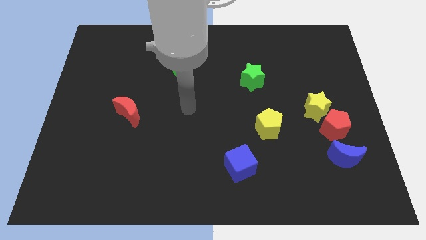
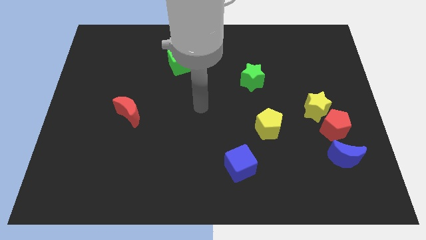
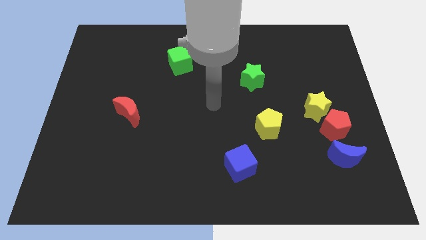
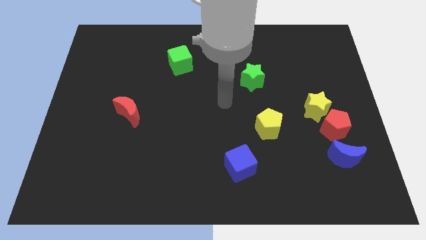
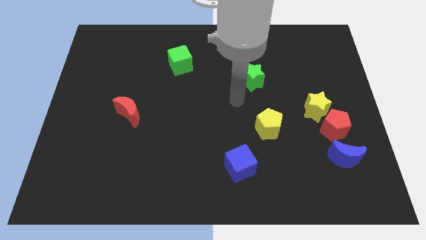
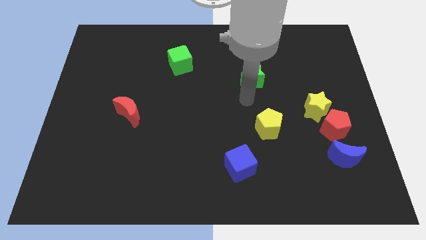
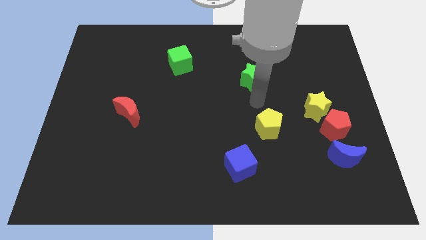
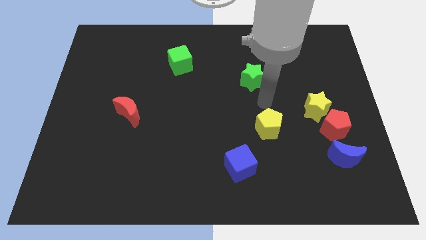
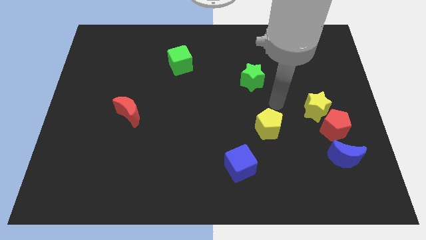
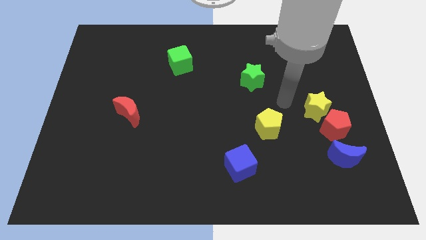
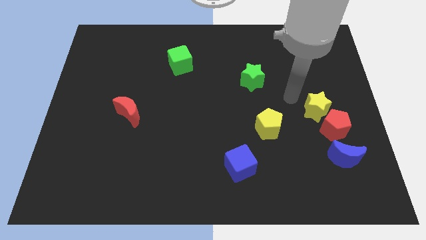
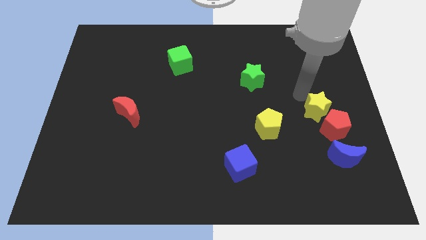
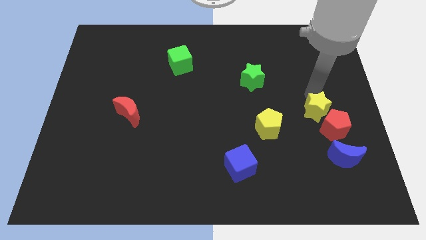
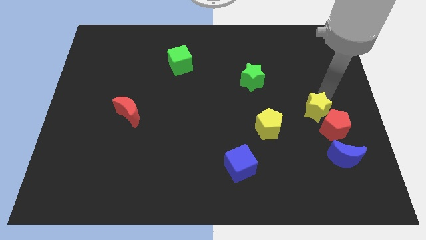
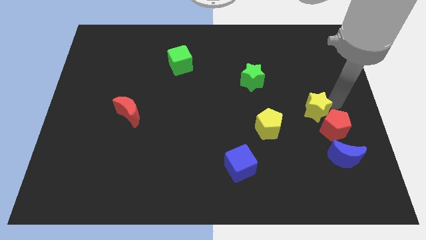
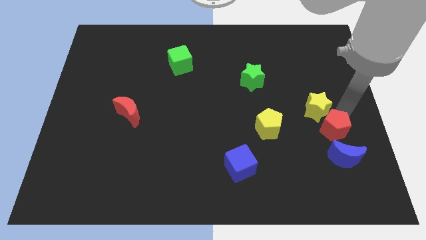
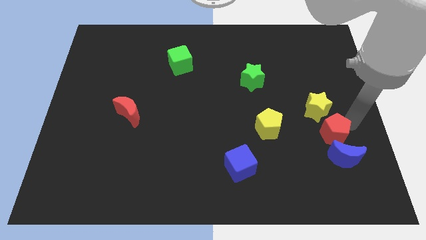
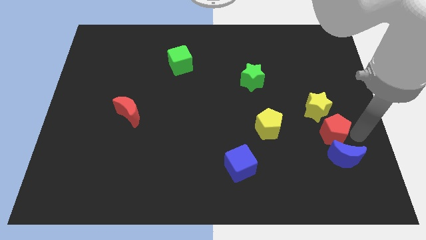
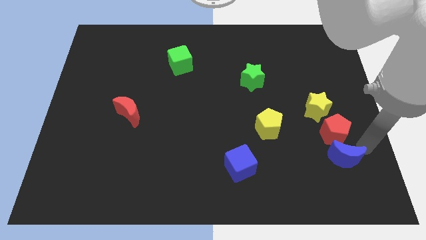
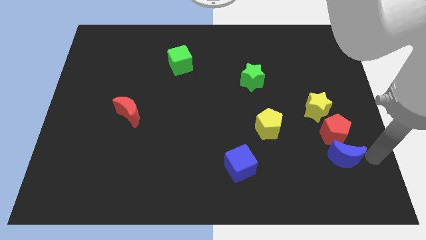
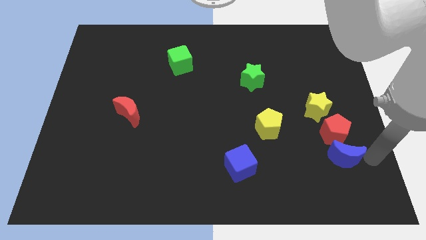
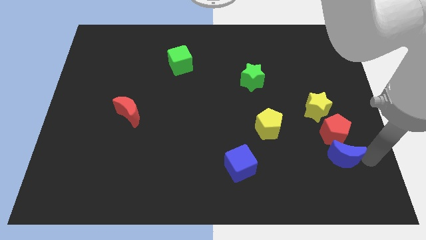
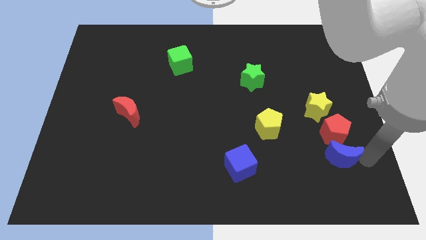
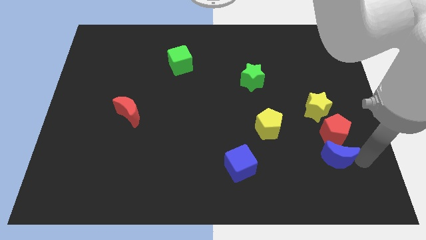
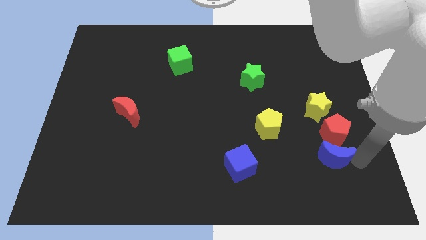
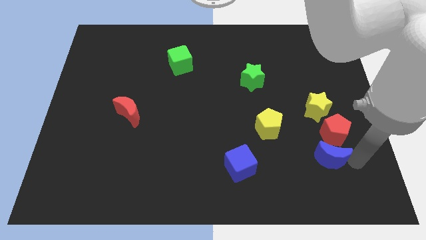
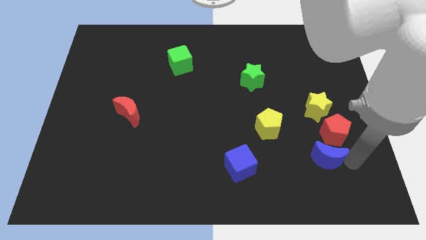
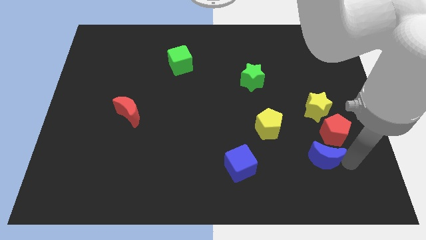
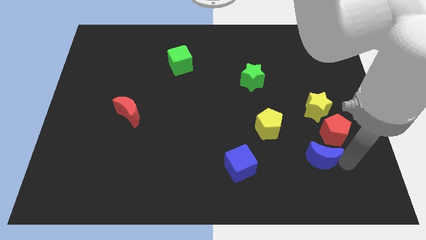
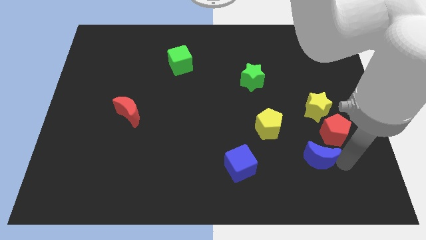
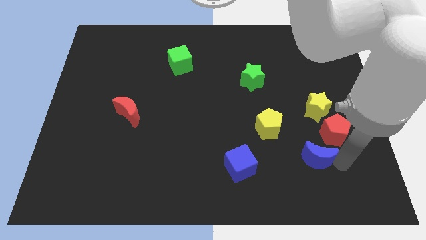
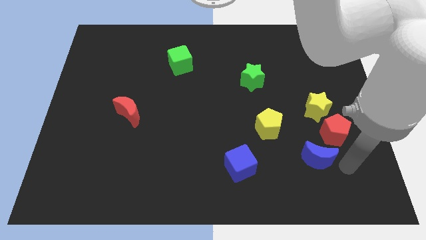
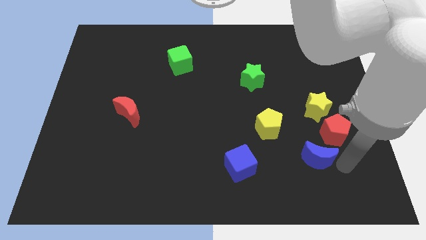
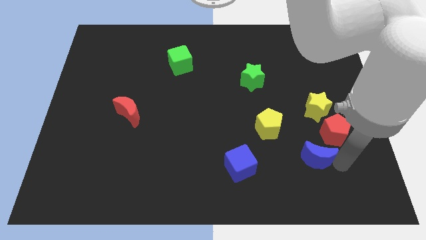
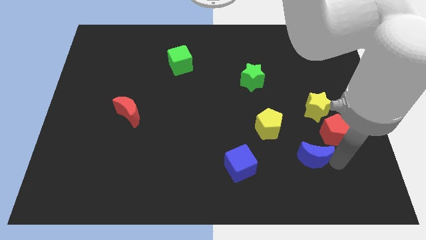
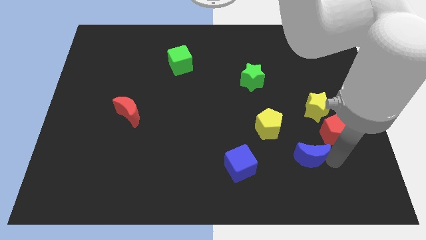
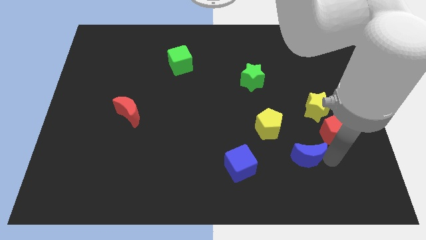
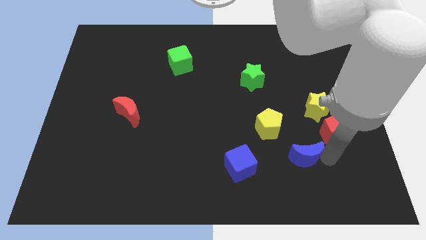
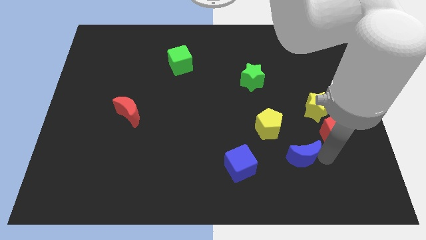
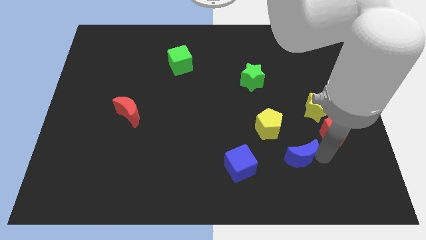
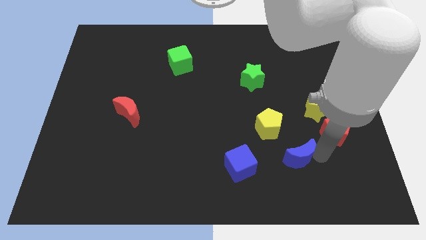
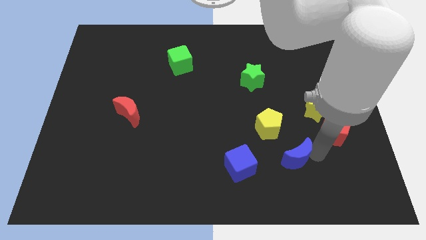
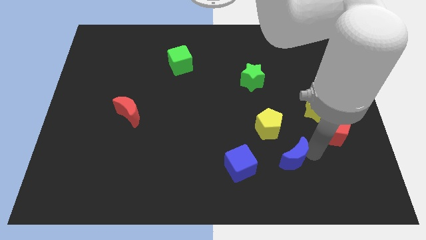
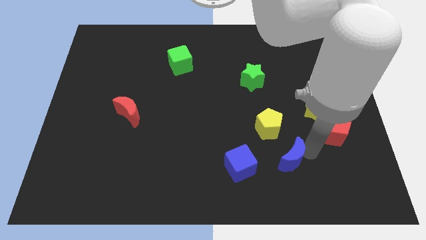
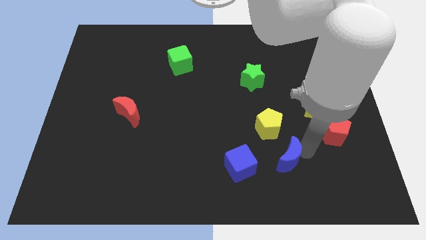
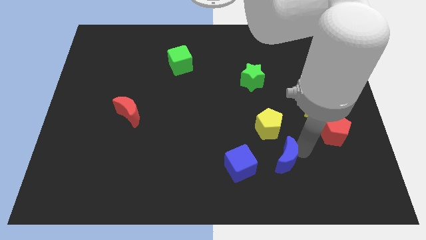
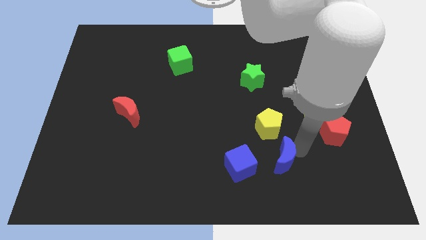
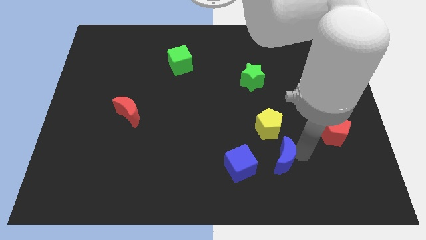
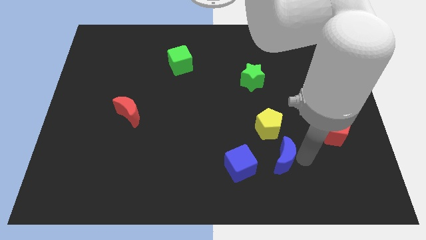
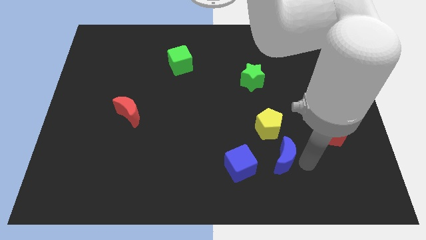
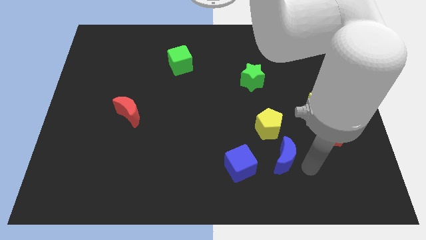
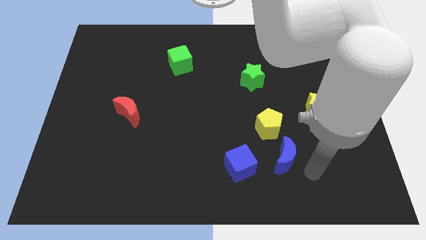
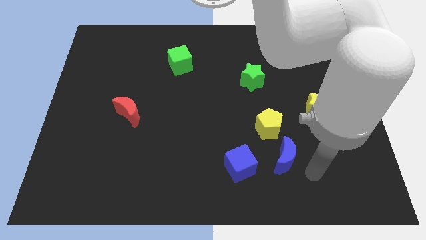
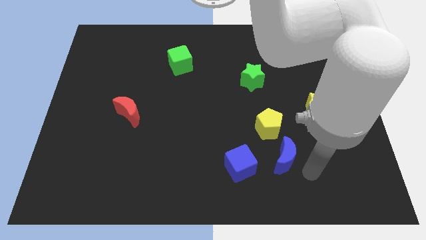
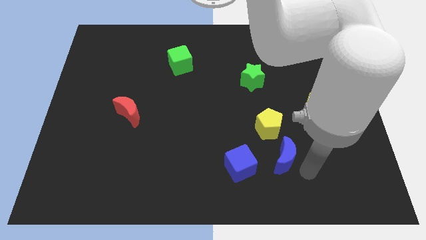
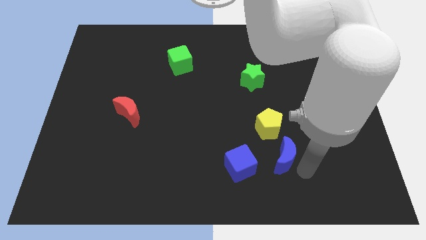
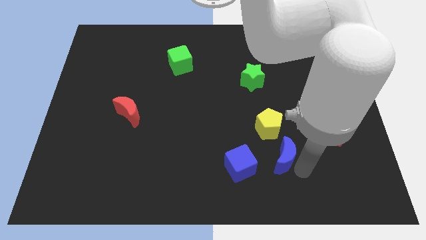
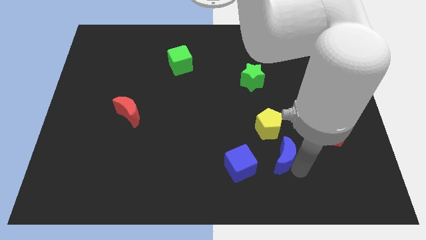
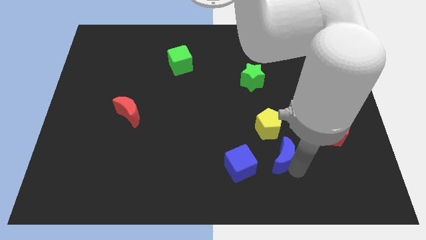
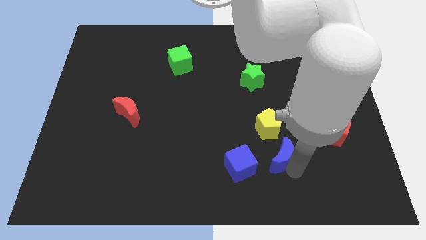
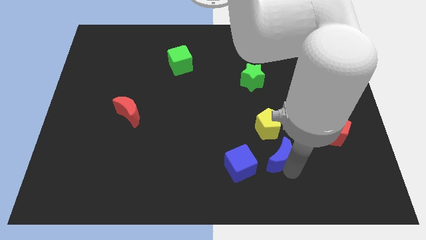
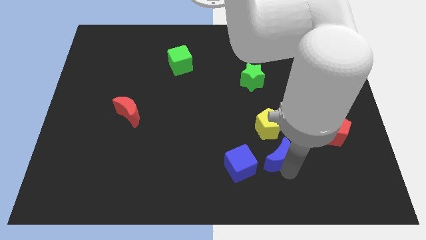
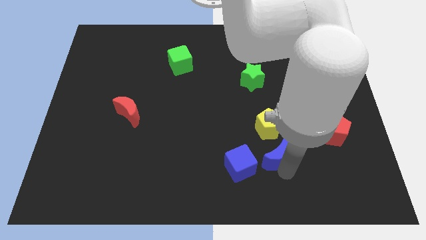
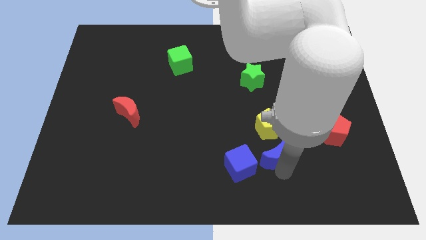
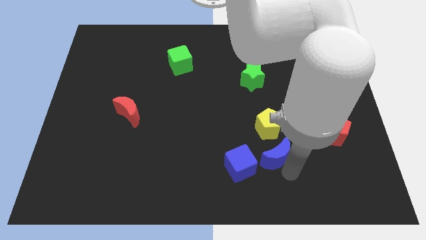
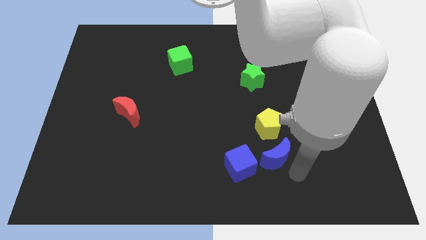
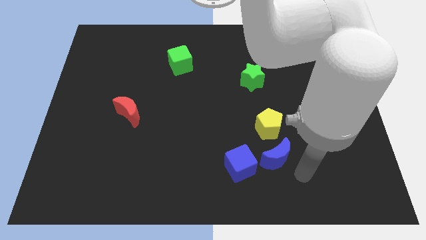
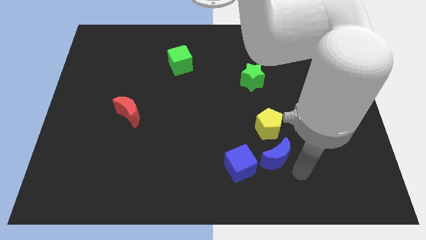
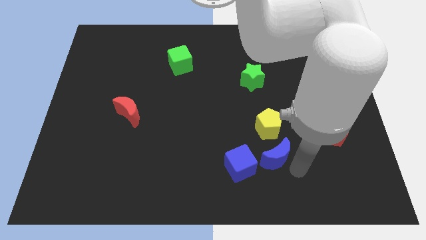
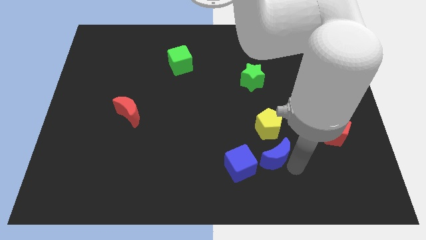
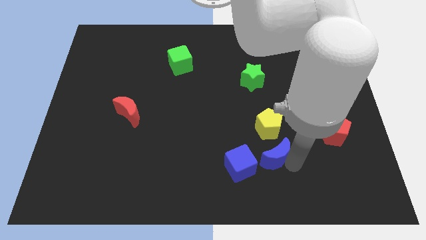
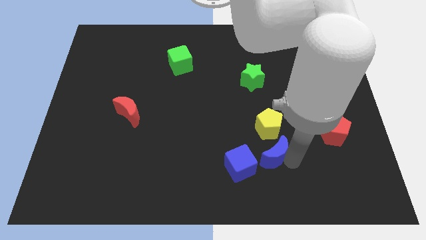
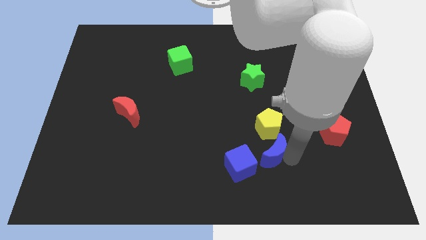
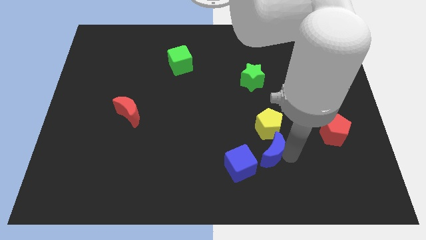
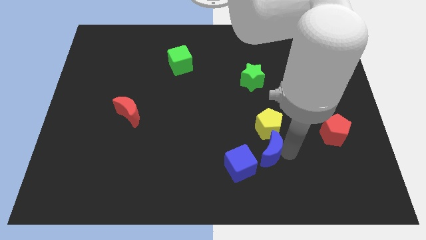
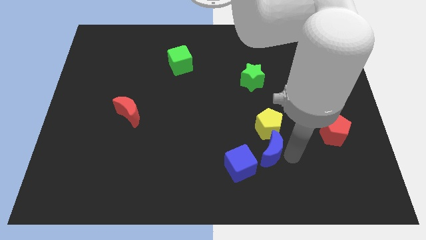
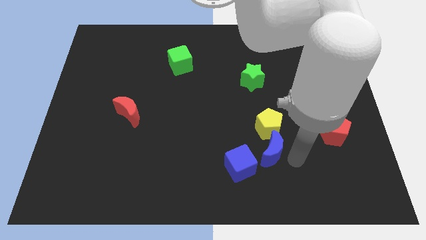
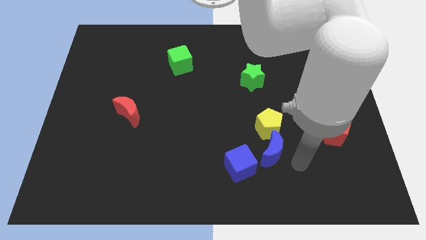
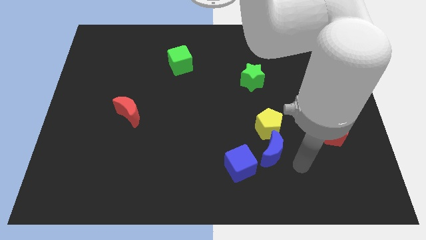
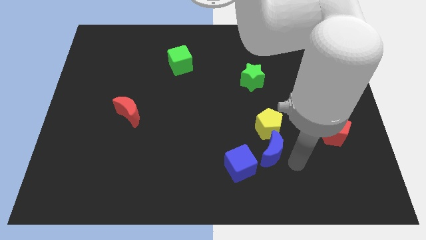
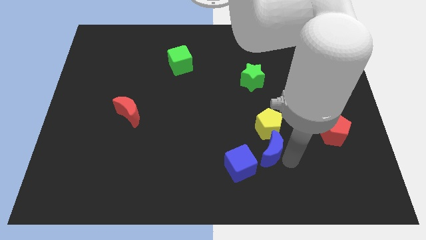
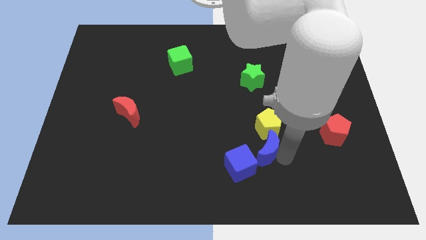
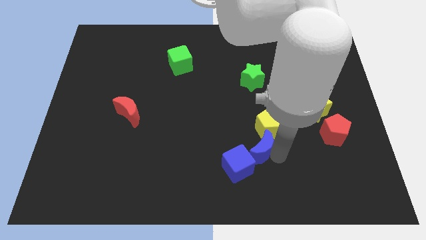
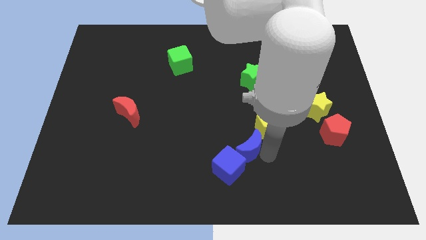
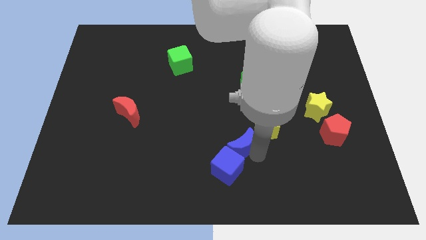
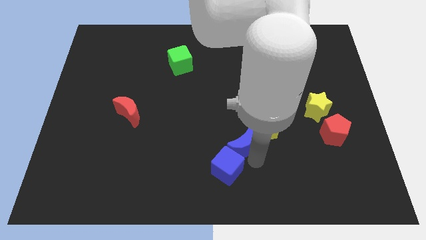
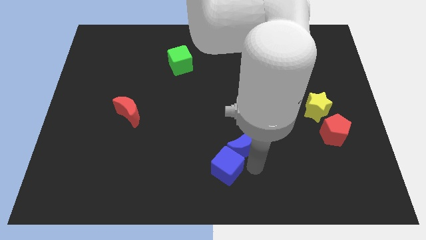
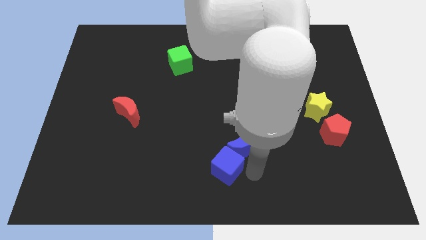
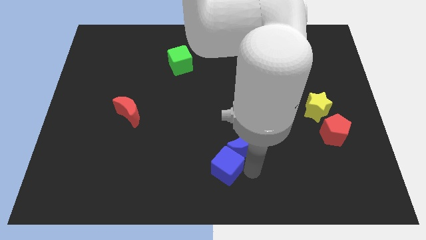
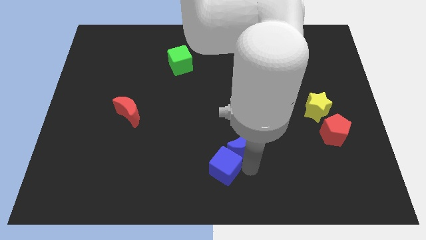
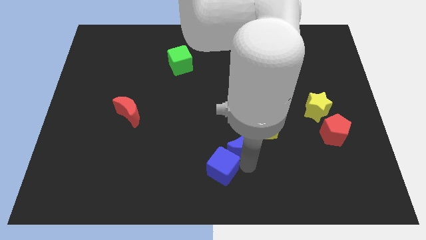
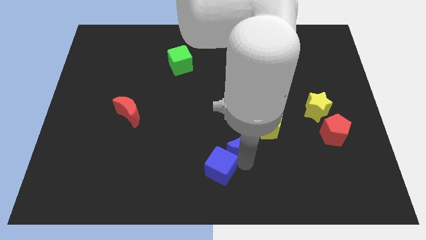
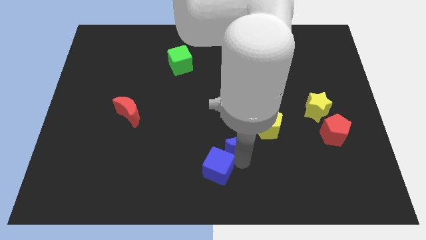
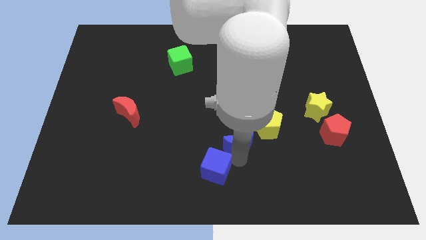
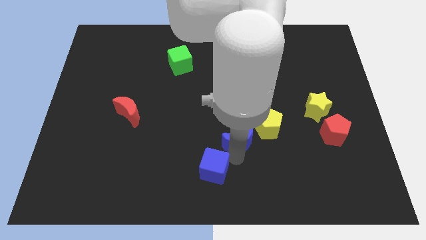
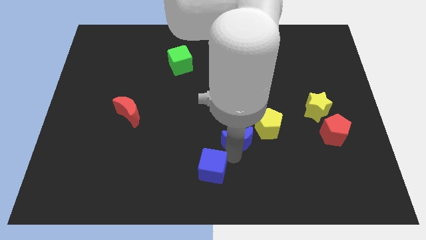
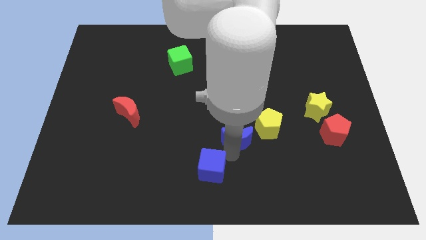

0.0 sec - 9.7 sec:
slide the blue moon to the center
